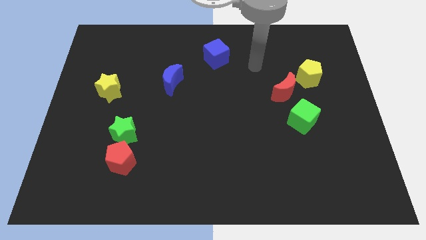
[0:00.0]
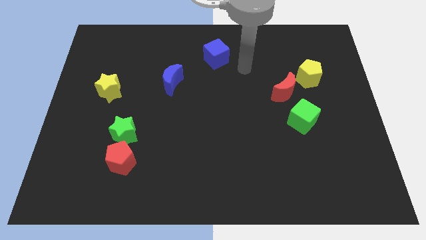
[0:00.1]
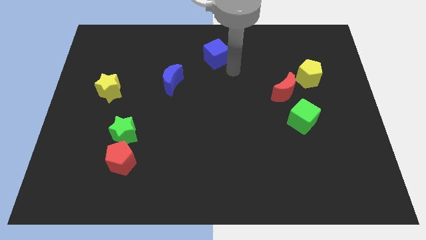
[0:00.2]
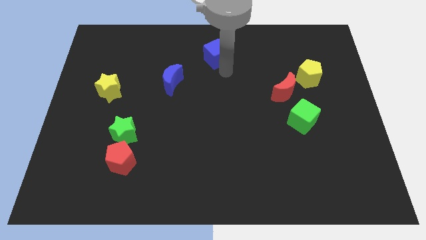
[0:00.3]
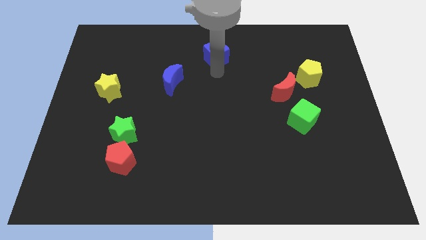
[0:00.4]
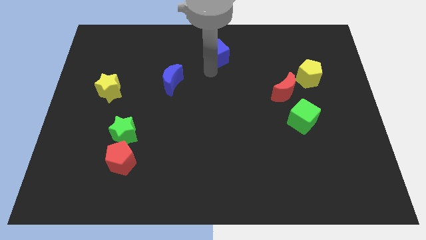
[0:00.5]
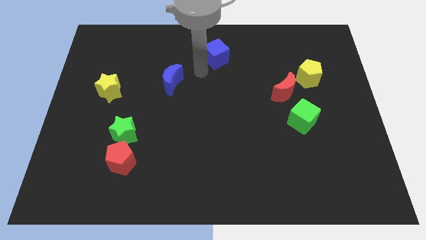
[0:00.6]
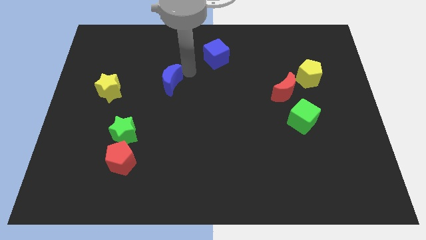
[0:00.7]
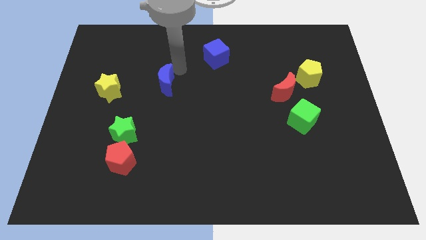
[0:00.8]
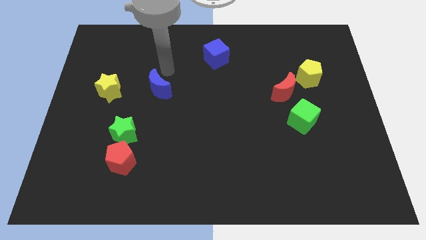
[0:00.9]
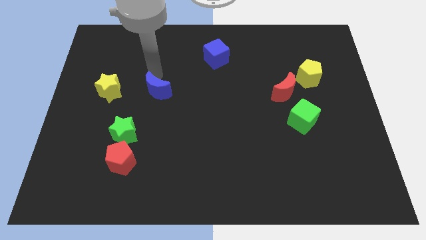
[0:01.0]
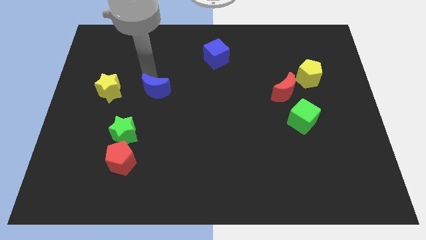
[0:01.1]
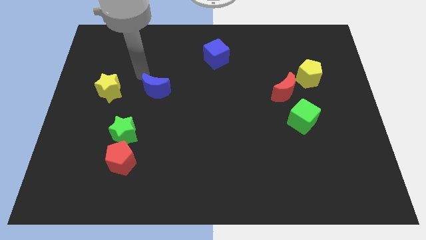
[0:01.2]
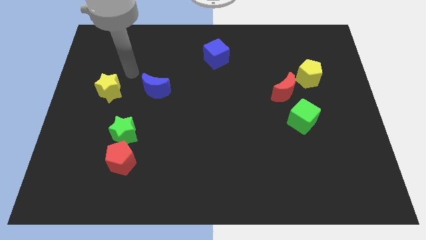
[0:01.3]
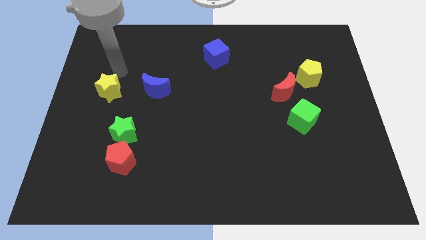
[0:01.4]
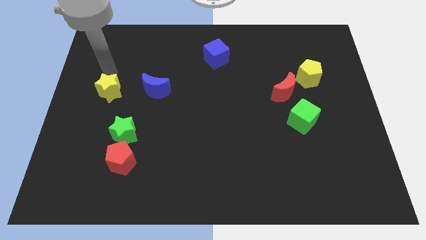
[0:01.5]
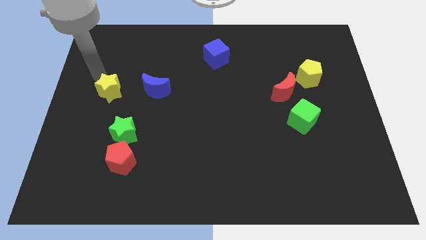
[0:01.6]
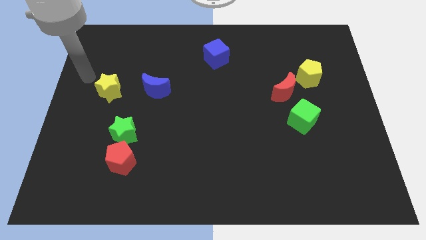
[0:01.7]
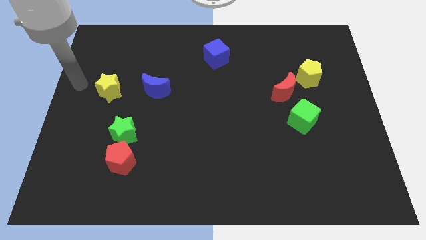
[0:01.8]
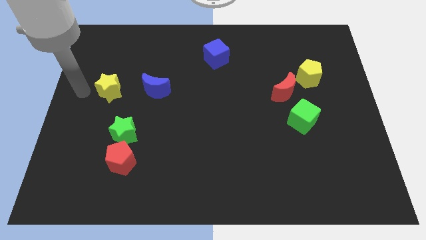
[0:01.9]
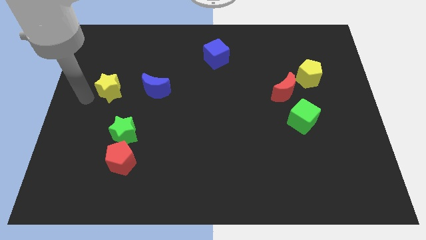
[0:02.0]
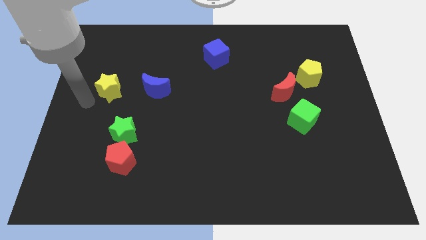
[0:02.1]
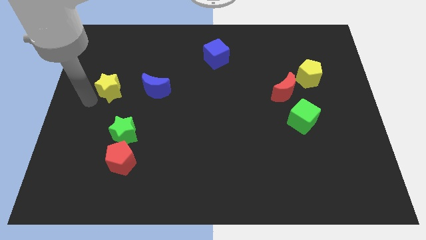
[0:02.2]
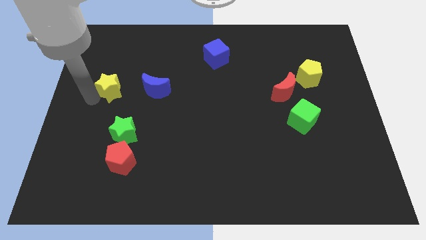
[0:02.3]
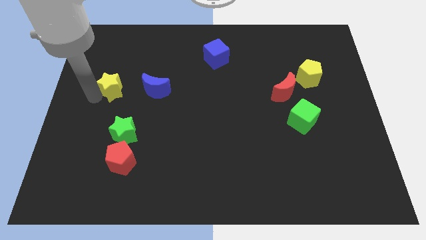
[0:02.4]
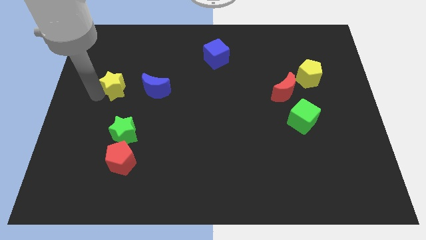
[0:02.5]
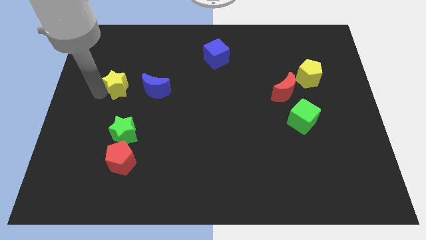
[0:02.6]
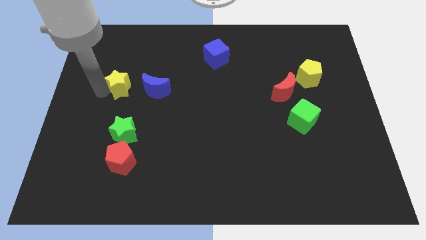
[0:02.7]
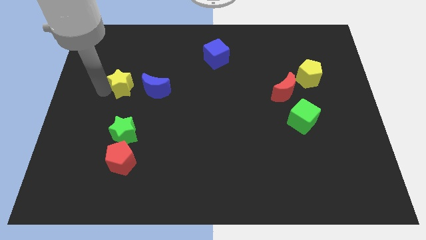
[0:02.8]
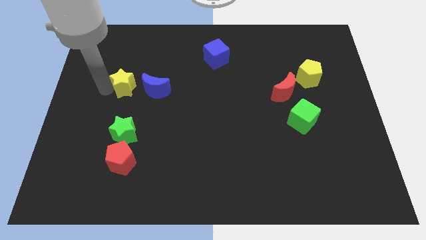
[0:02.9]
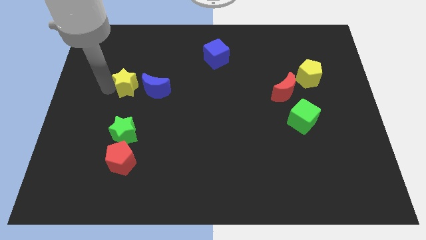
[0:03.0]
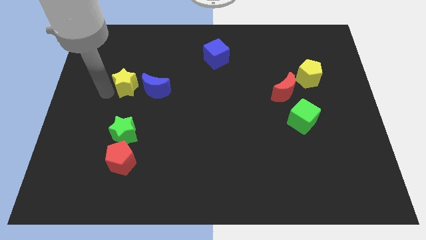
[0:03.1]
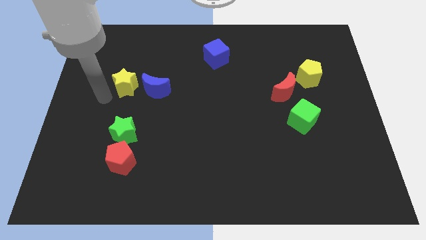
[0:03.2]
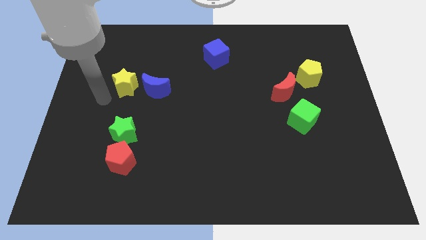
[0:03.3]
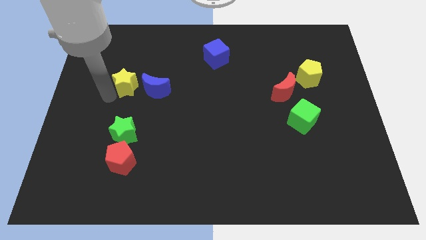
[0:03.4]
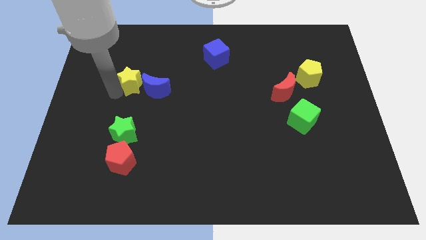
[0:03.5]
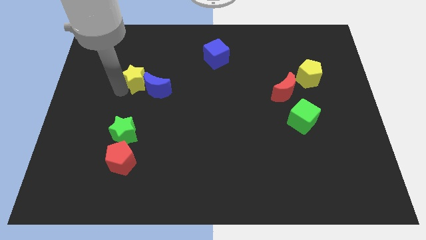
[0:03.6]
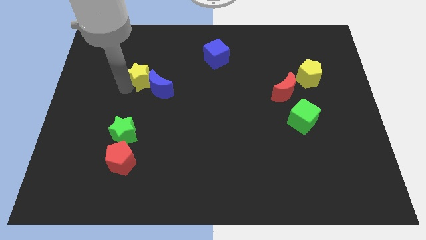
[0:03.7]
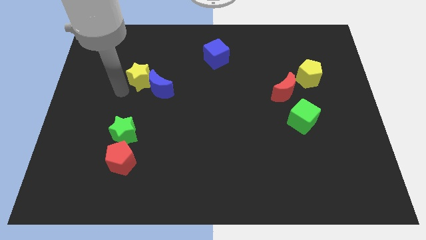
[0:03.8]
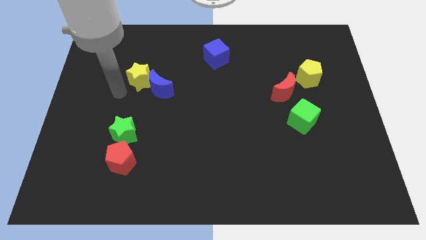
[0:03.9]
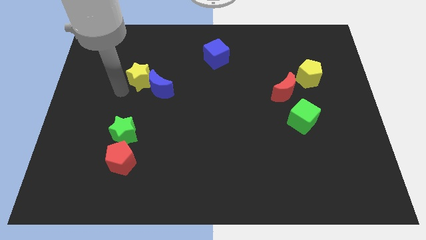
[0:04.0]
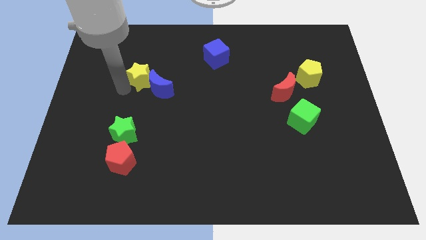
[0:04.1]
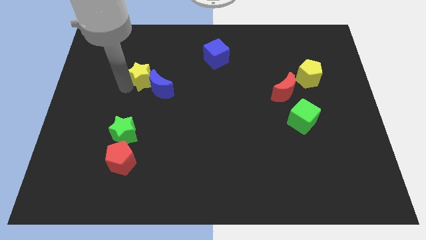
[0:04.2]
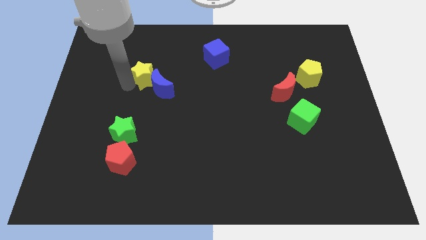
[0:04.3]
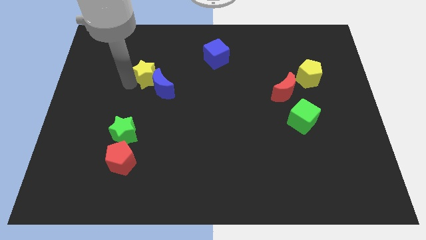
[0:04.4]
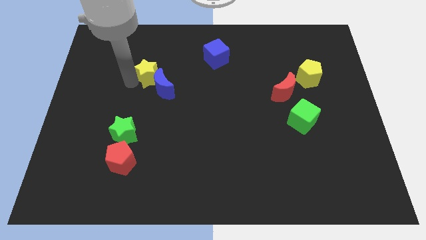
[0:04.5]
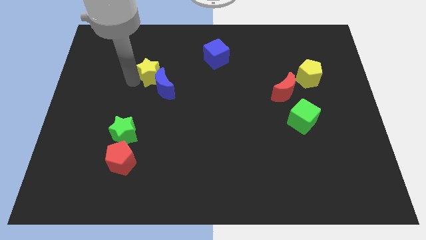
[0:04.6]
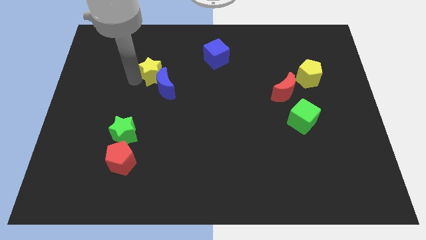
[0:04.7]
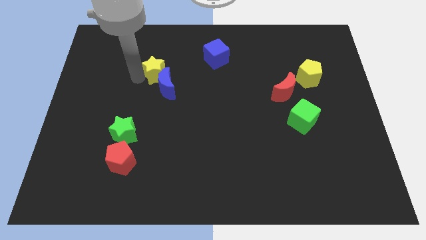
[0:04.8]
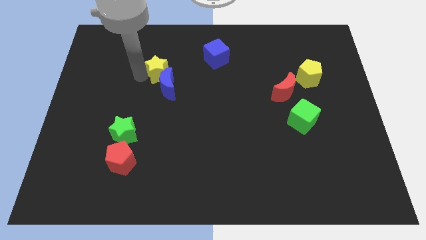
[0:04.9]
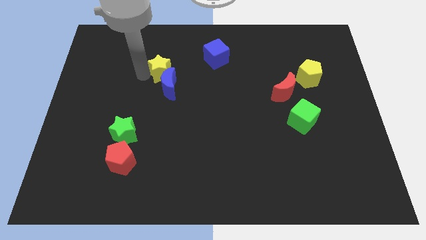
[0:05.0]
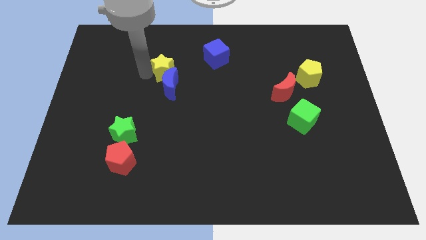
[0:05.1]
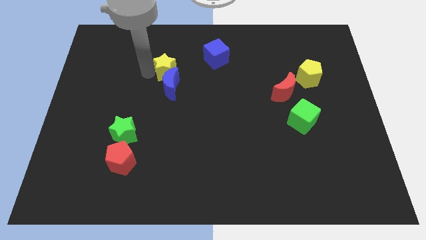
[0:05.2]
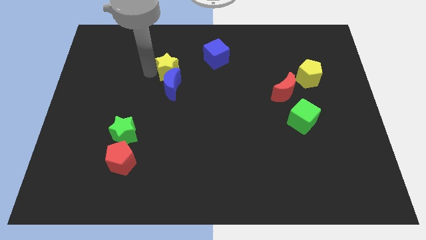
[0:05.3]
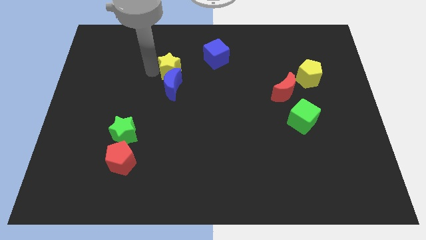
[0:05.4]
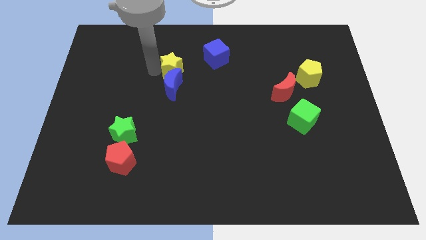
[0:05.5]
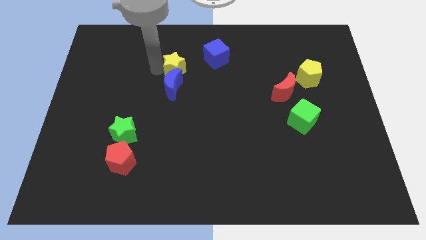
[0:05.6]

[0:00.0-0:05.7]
slide the yellow star to the bottom left side of the blue cube

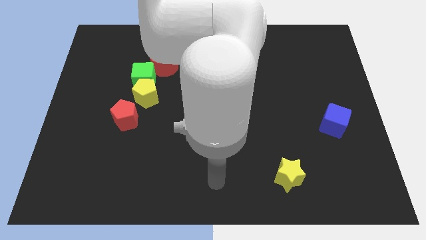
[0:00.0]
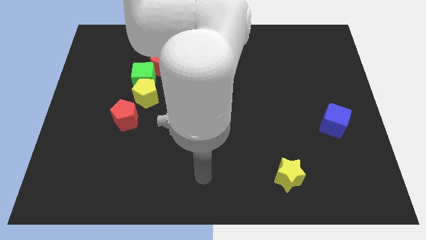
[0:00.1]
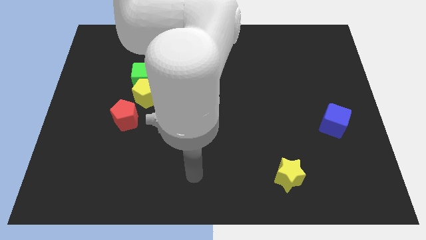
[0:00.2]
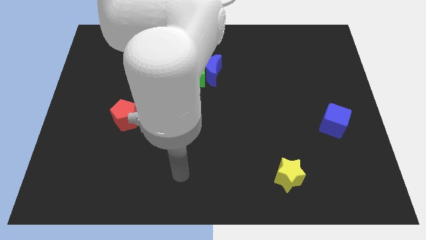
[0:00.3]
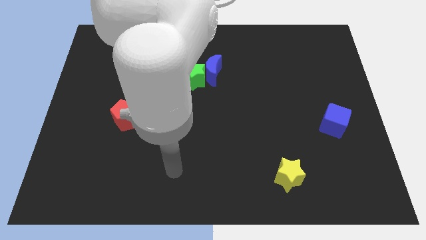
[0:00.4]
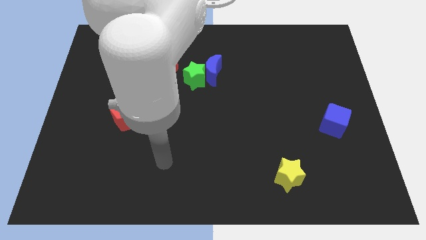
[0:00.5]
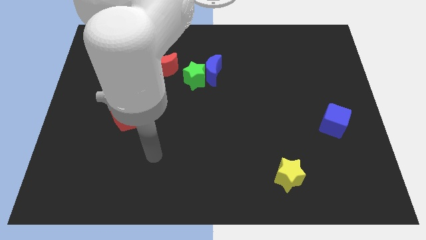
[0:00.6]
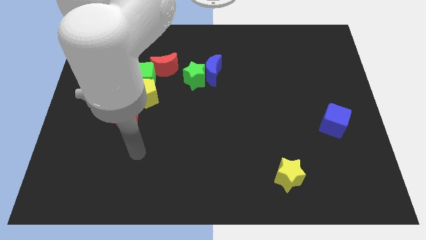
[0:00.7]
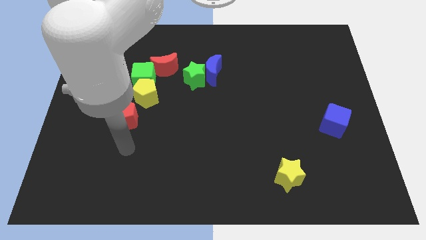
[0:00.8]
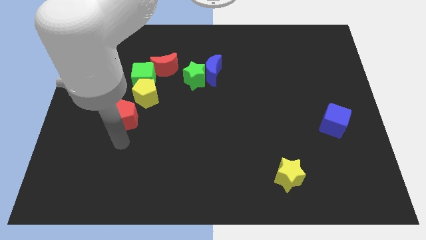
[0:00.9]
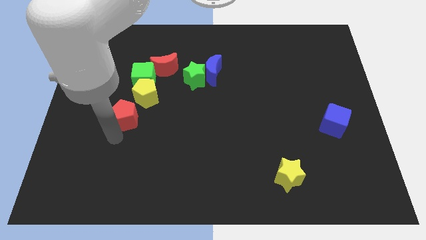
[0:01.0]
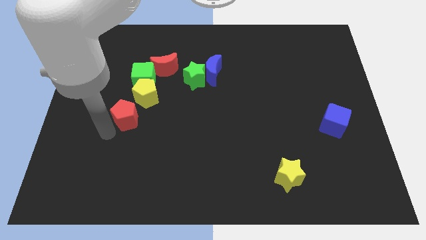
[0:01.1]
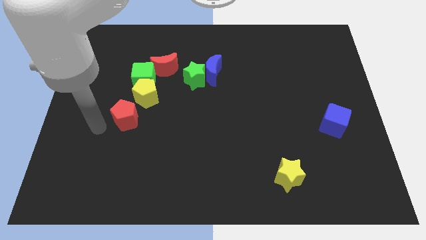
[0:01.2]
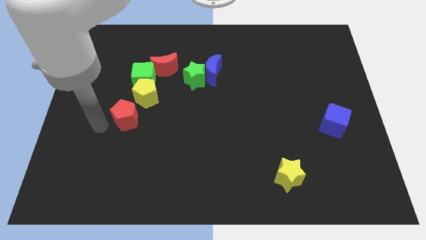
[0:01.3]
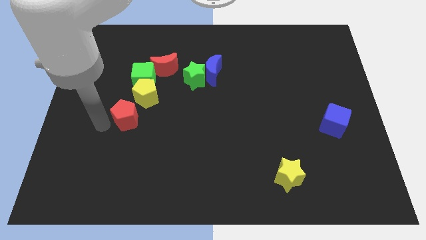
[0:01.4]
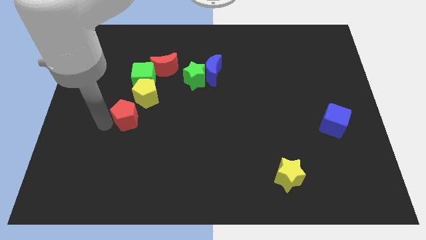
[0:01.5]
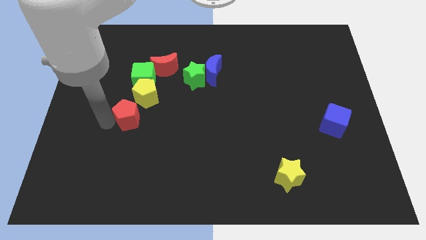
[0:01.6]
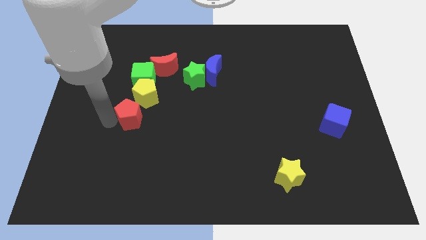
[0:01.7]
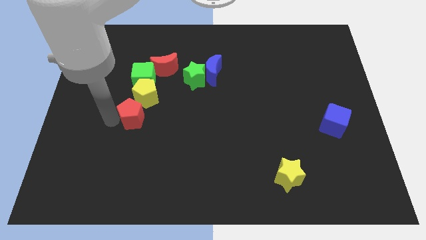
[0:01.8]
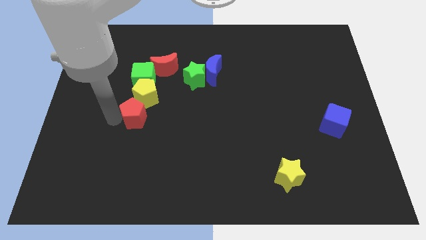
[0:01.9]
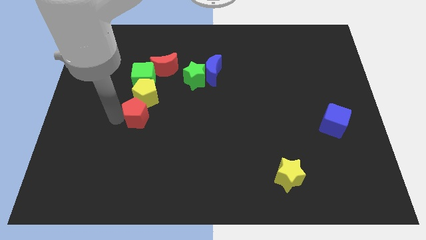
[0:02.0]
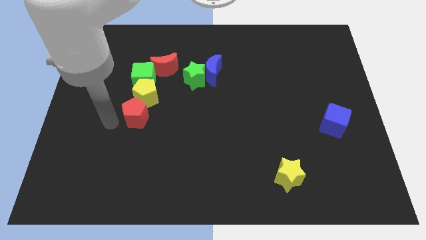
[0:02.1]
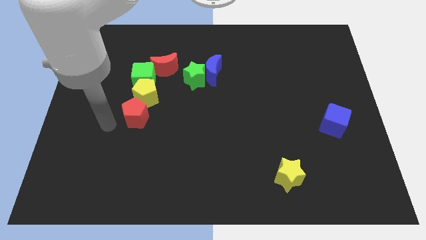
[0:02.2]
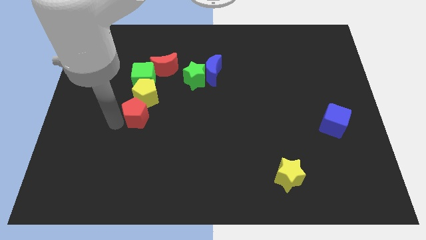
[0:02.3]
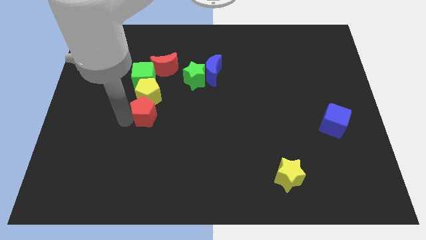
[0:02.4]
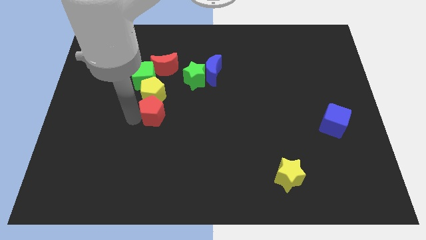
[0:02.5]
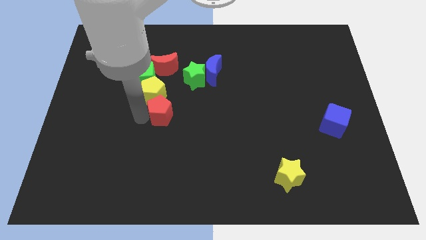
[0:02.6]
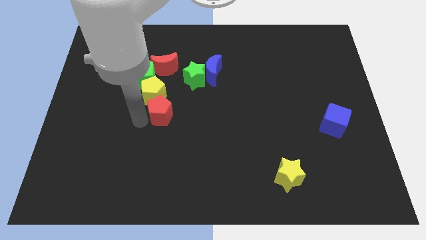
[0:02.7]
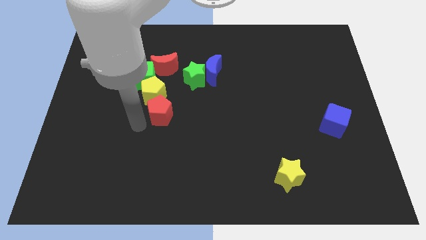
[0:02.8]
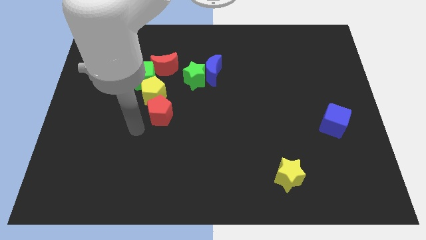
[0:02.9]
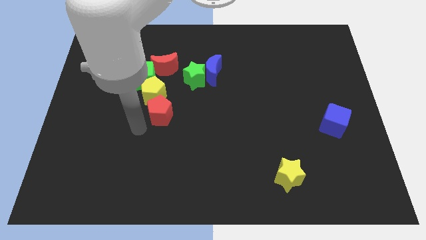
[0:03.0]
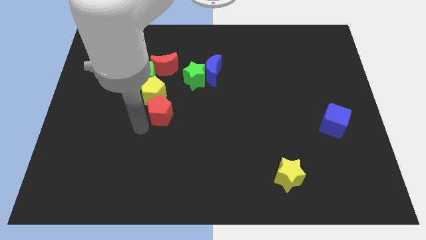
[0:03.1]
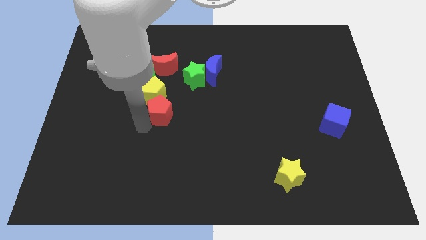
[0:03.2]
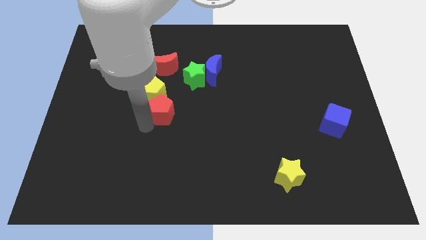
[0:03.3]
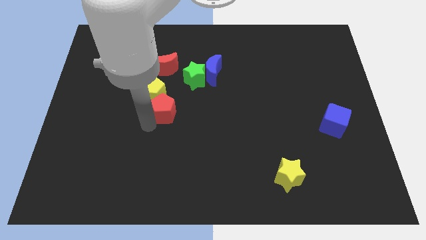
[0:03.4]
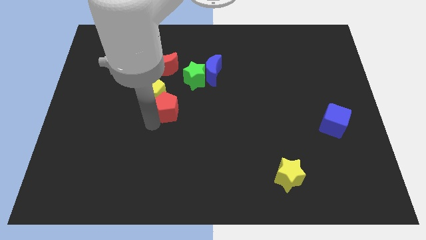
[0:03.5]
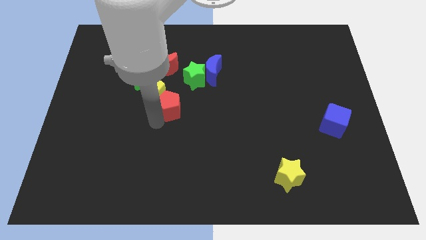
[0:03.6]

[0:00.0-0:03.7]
move the red pentagon right of the yellow pentagon
